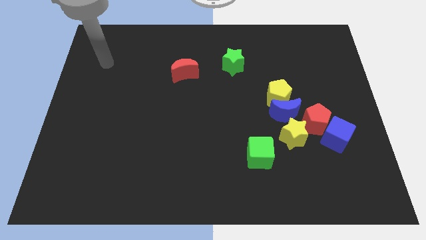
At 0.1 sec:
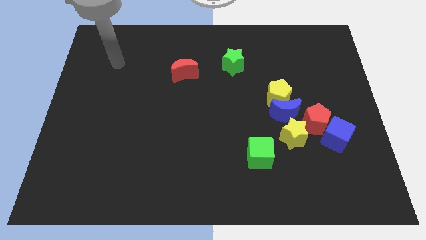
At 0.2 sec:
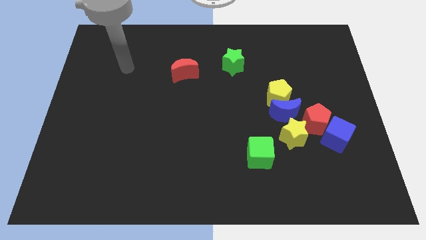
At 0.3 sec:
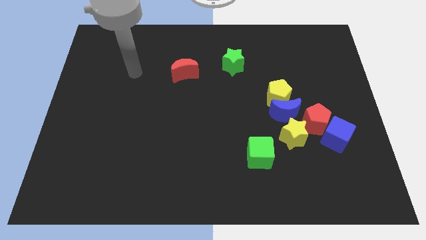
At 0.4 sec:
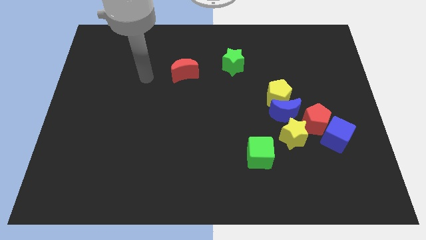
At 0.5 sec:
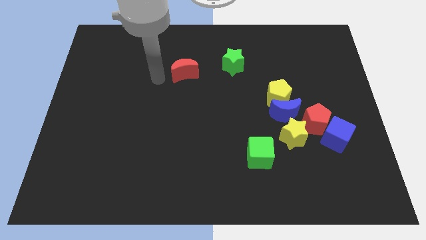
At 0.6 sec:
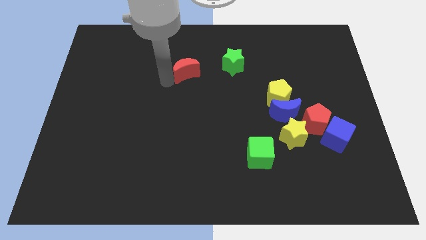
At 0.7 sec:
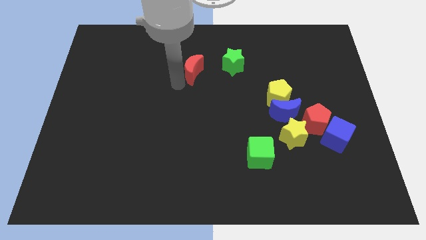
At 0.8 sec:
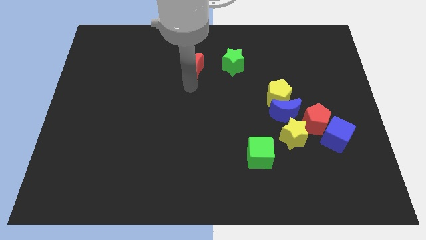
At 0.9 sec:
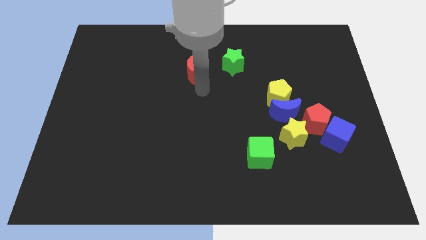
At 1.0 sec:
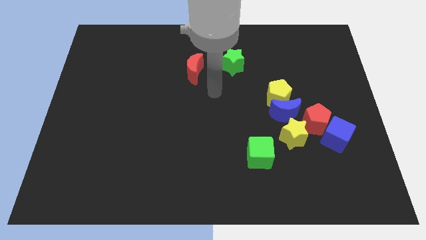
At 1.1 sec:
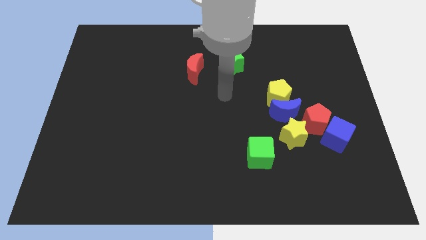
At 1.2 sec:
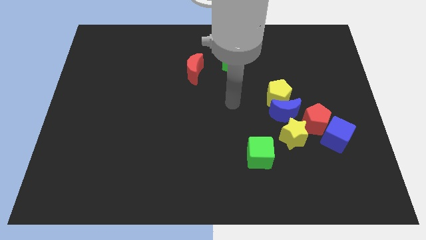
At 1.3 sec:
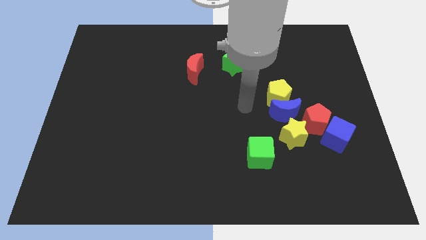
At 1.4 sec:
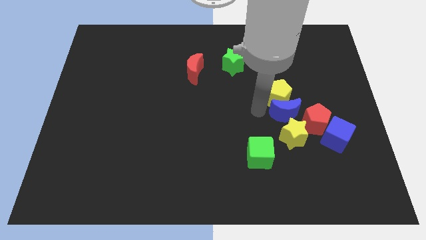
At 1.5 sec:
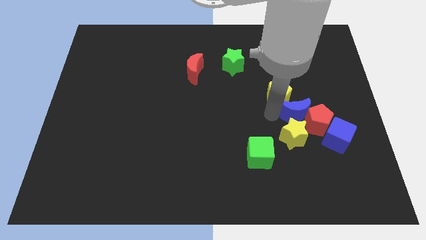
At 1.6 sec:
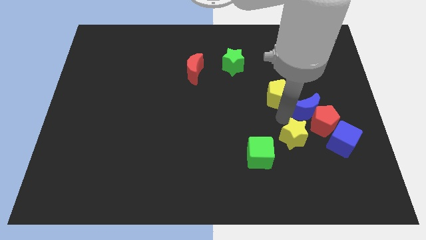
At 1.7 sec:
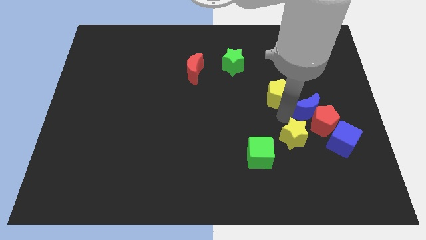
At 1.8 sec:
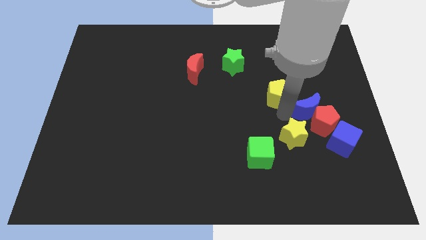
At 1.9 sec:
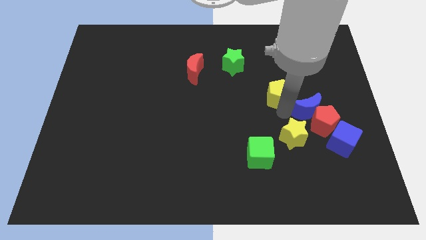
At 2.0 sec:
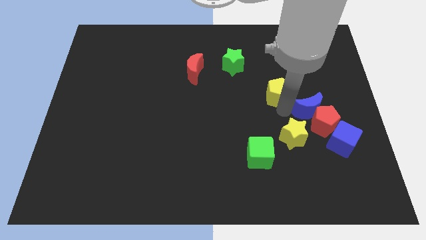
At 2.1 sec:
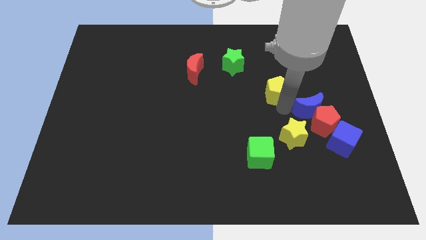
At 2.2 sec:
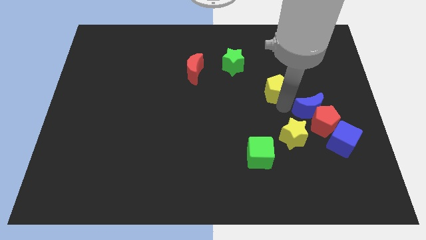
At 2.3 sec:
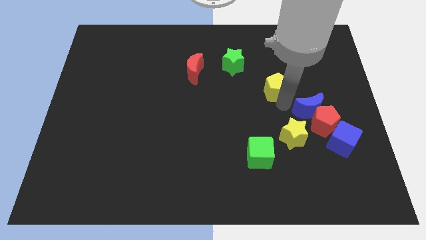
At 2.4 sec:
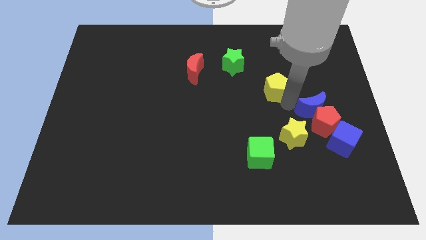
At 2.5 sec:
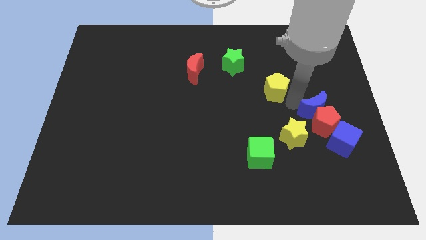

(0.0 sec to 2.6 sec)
pull the yellow pentagon apart from the blue moon

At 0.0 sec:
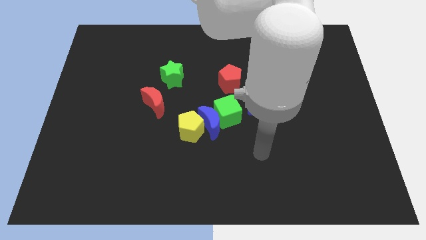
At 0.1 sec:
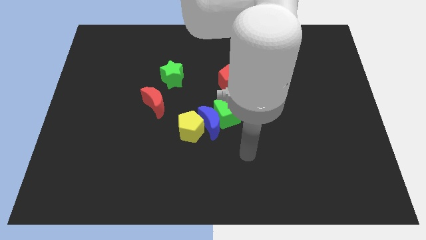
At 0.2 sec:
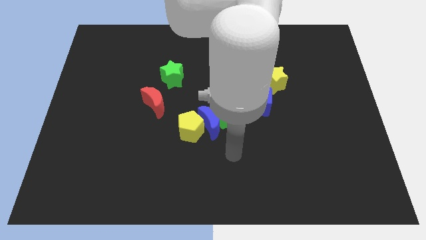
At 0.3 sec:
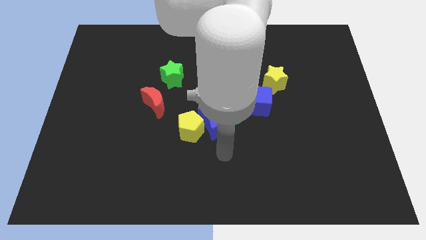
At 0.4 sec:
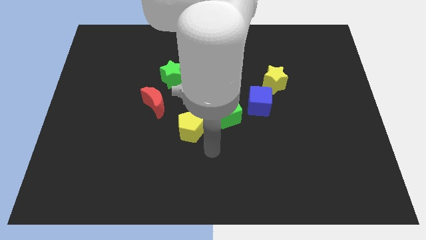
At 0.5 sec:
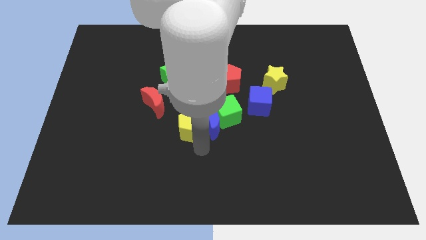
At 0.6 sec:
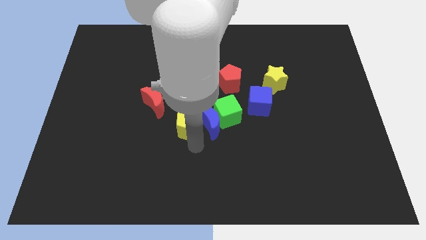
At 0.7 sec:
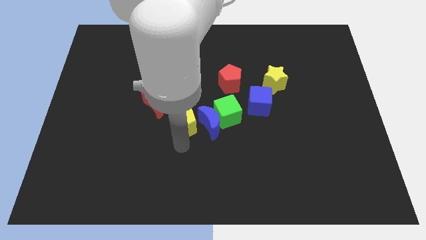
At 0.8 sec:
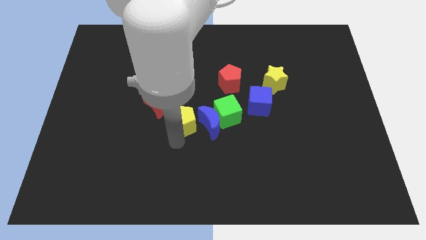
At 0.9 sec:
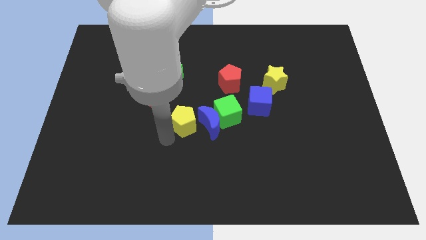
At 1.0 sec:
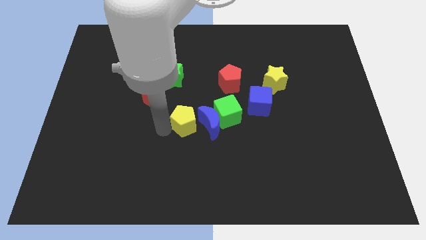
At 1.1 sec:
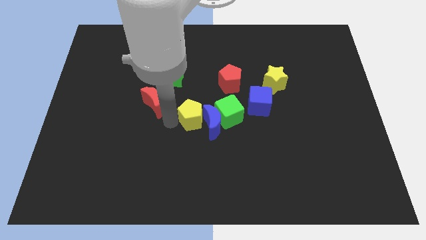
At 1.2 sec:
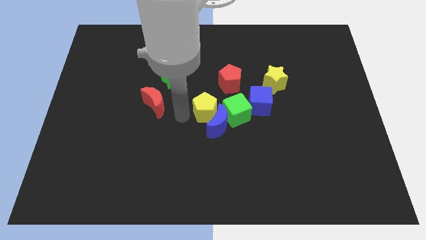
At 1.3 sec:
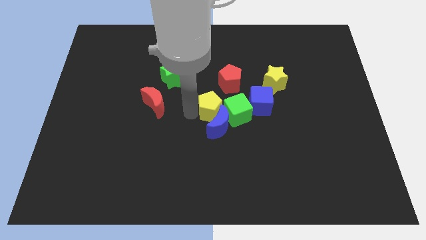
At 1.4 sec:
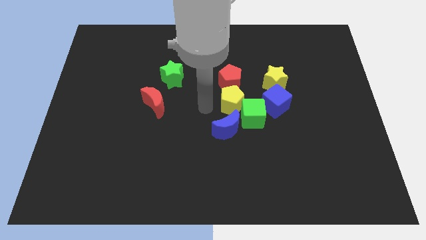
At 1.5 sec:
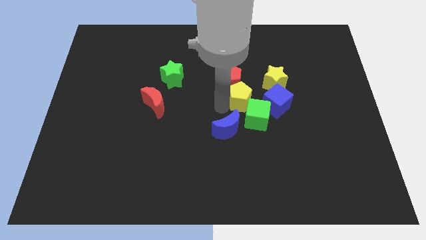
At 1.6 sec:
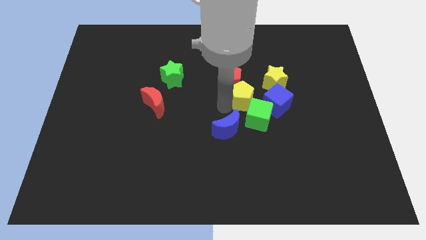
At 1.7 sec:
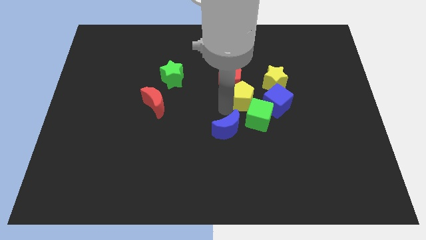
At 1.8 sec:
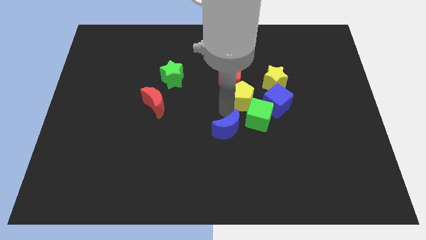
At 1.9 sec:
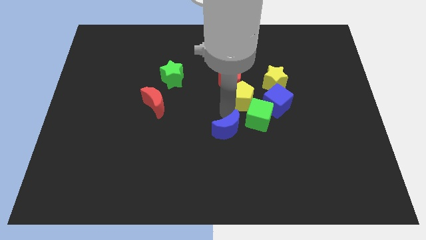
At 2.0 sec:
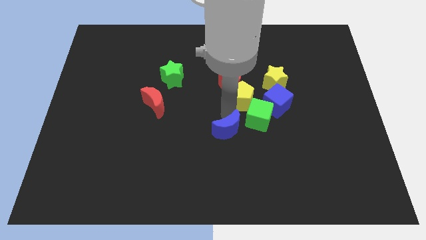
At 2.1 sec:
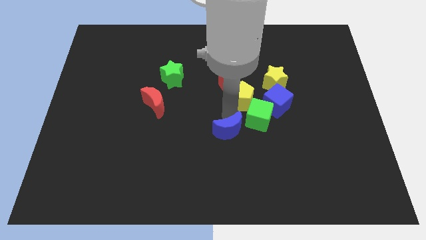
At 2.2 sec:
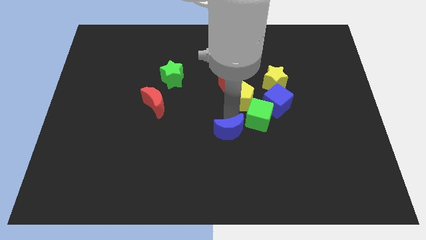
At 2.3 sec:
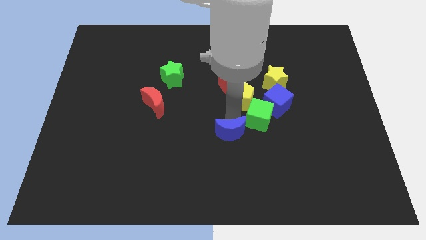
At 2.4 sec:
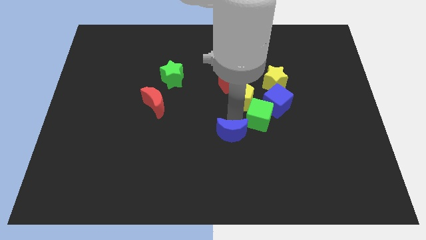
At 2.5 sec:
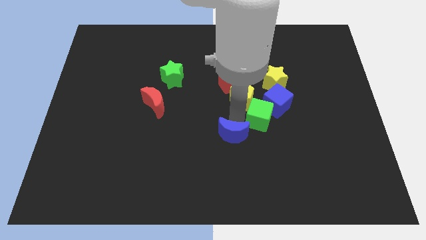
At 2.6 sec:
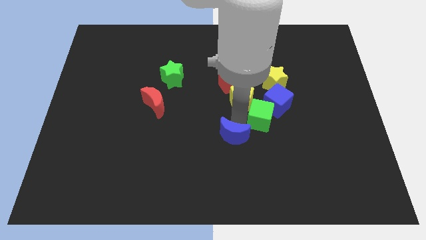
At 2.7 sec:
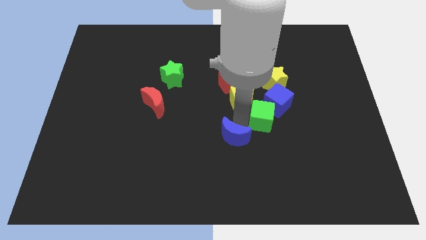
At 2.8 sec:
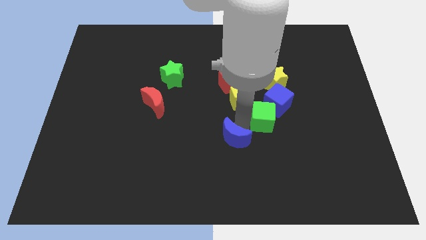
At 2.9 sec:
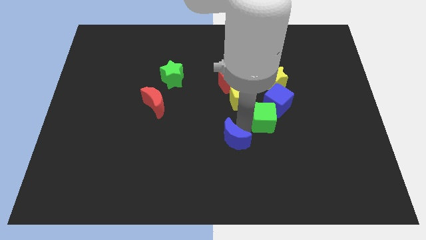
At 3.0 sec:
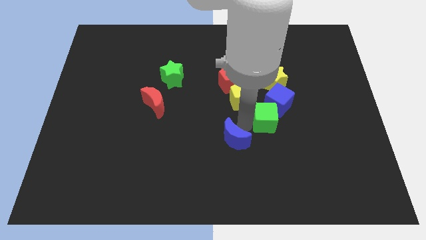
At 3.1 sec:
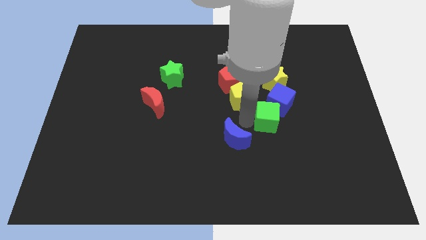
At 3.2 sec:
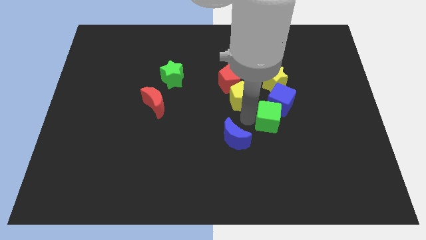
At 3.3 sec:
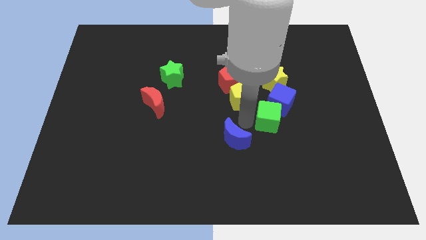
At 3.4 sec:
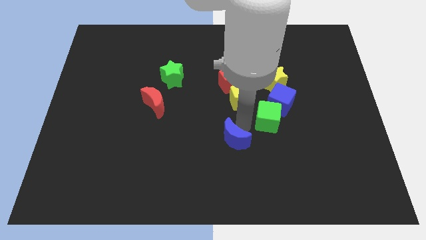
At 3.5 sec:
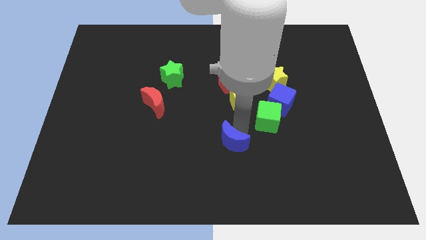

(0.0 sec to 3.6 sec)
separate the blue moon from the green cube and yellow pentagon

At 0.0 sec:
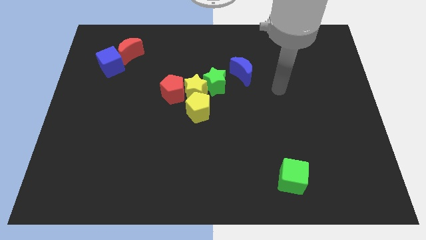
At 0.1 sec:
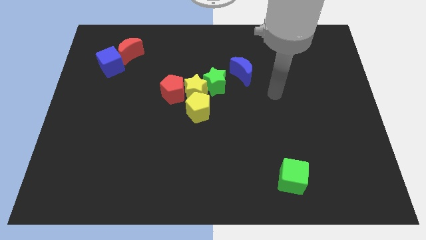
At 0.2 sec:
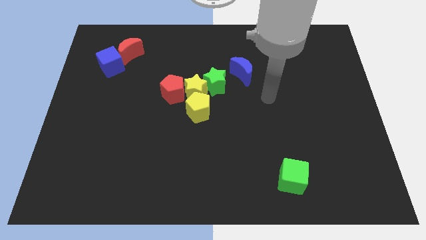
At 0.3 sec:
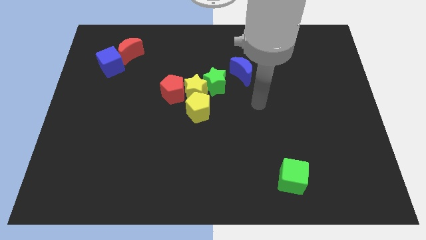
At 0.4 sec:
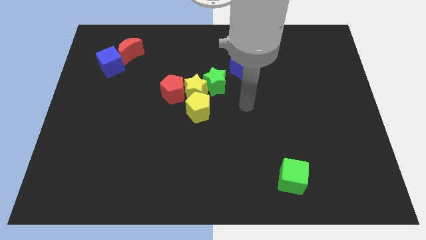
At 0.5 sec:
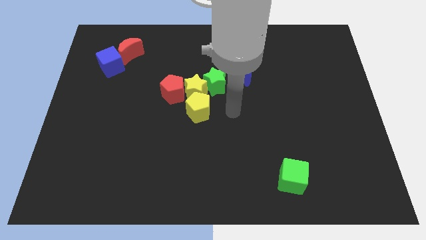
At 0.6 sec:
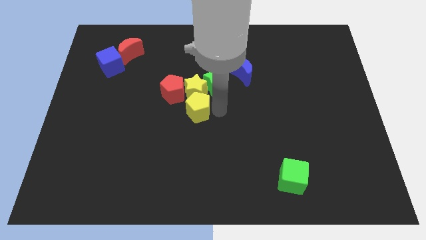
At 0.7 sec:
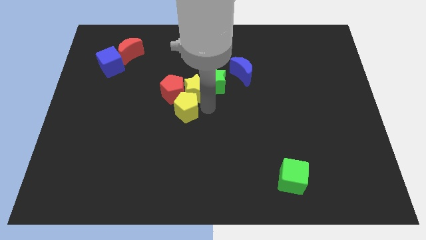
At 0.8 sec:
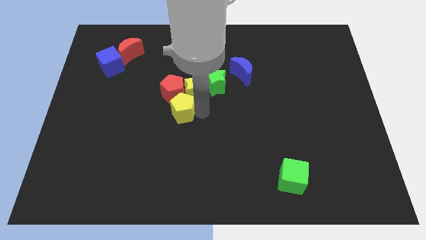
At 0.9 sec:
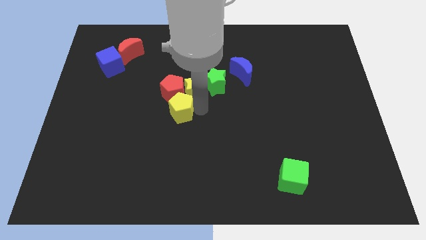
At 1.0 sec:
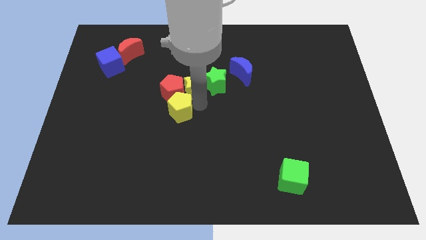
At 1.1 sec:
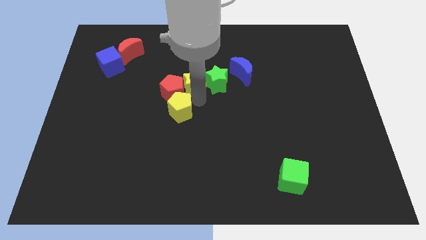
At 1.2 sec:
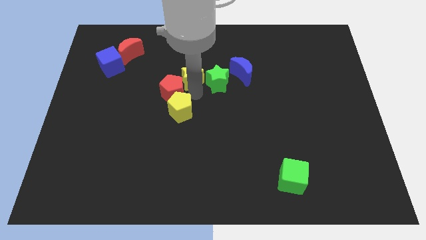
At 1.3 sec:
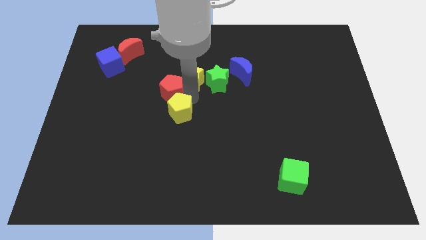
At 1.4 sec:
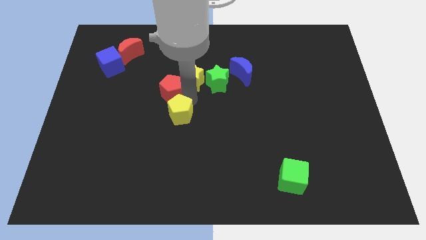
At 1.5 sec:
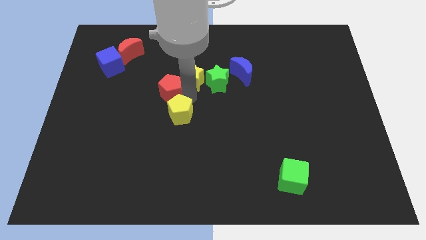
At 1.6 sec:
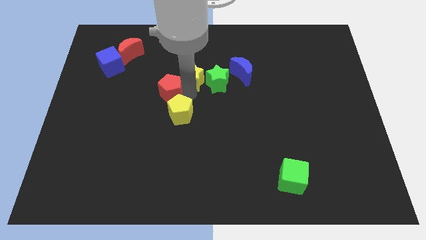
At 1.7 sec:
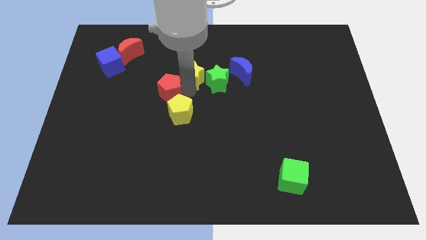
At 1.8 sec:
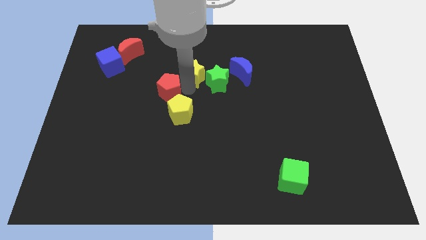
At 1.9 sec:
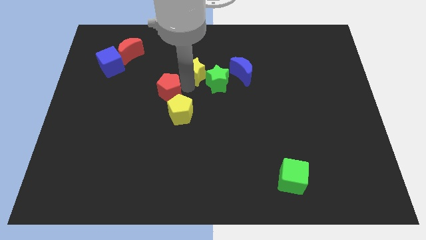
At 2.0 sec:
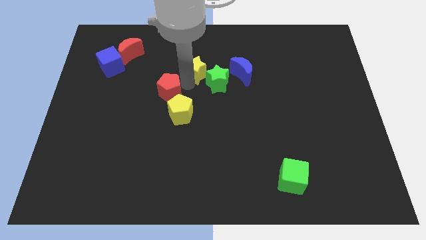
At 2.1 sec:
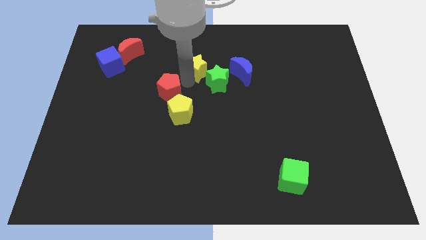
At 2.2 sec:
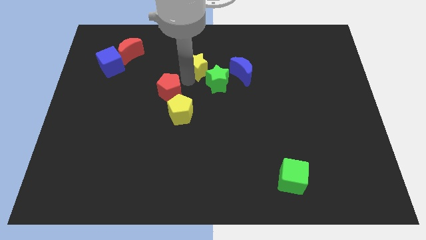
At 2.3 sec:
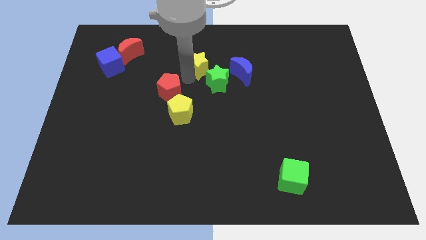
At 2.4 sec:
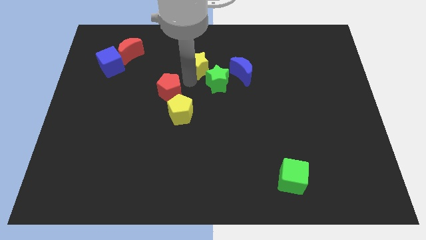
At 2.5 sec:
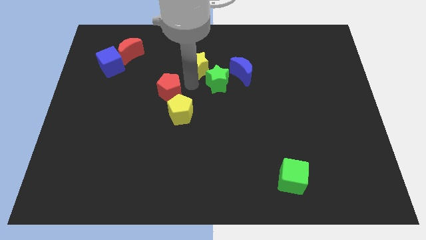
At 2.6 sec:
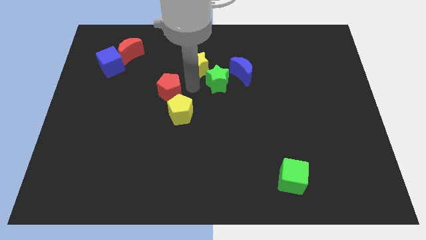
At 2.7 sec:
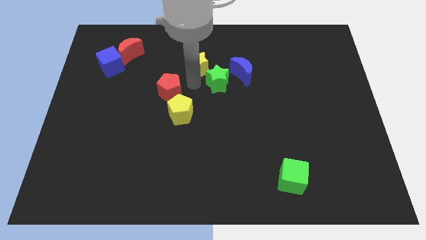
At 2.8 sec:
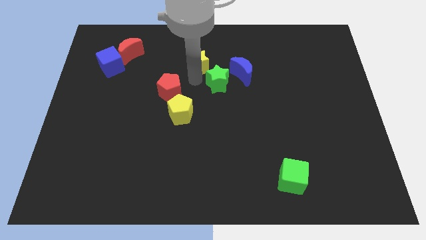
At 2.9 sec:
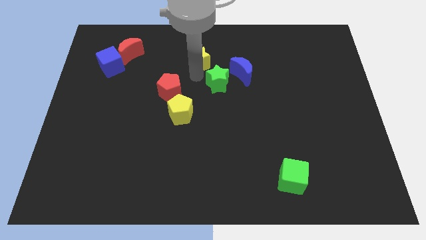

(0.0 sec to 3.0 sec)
separate the yellow star from the green star, yellow pentagon, and red pentagon
